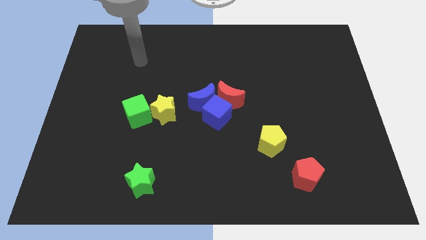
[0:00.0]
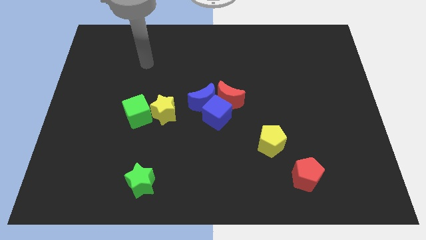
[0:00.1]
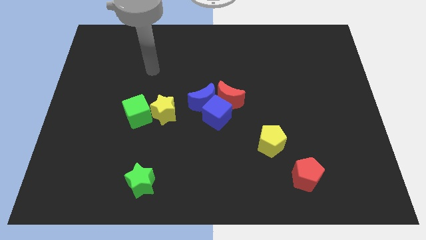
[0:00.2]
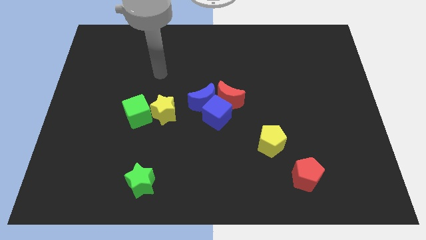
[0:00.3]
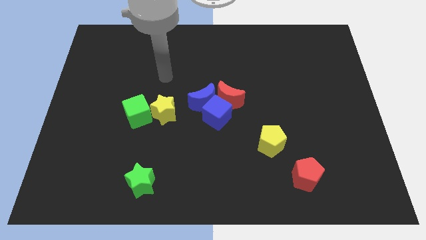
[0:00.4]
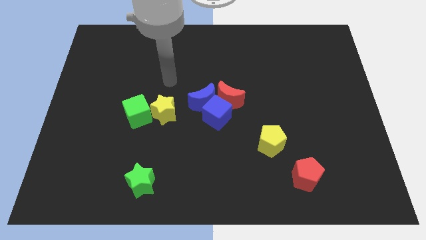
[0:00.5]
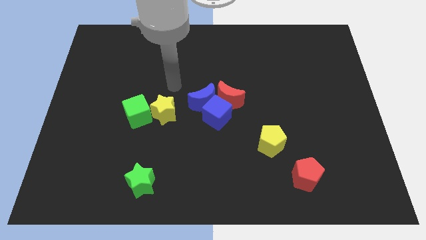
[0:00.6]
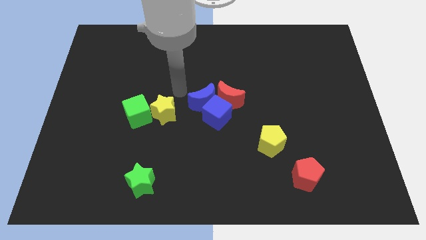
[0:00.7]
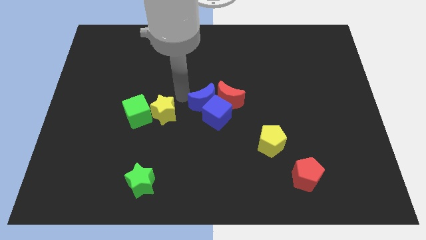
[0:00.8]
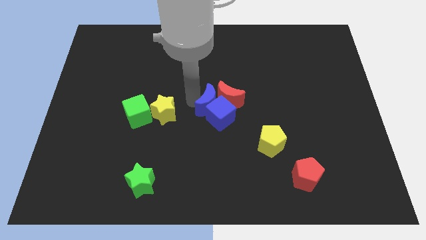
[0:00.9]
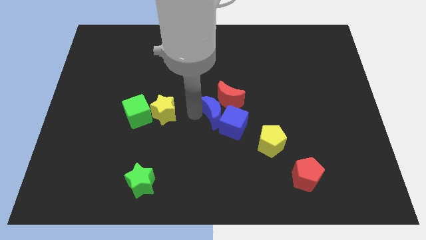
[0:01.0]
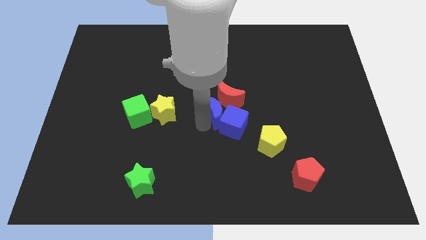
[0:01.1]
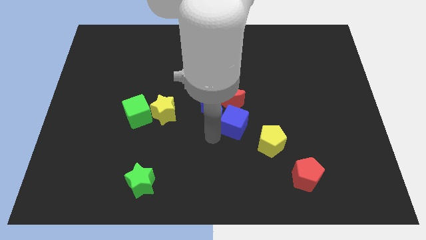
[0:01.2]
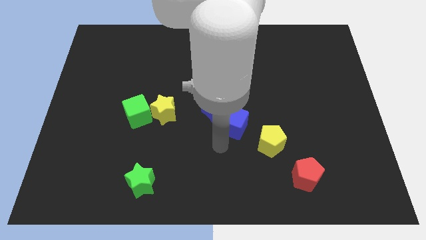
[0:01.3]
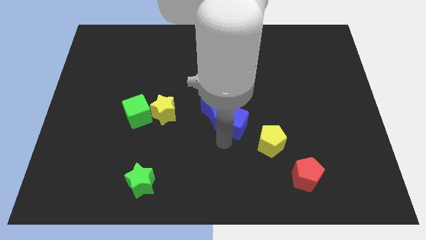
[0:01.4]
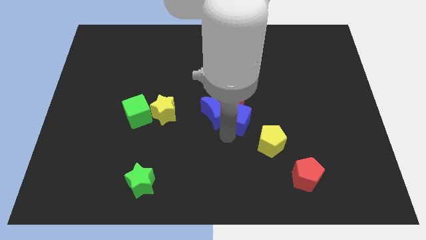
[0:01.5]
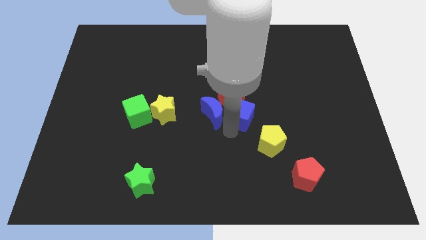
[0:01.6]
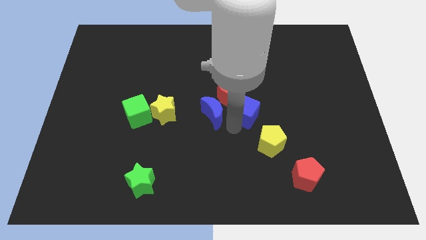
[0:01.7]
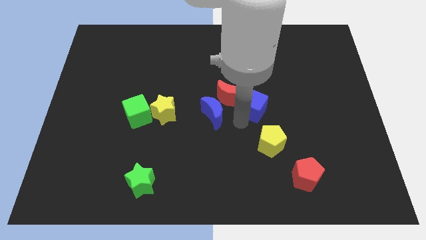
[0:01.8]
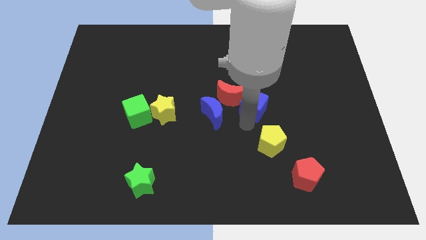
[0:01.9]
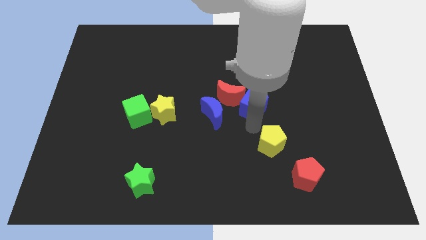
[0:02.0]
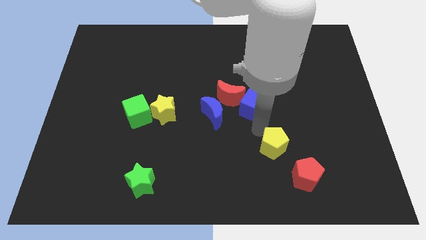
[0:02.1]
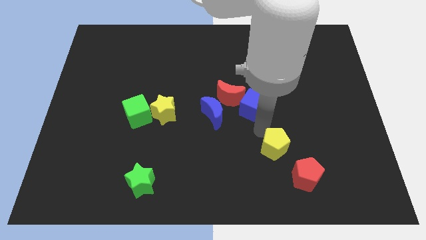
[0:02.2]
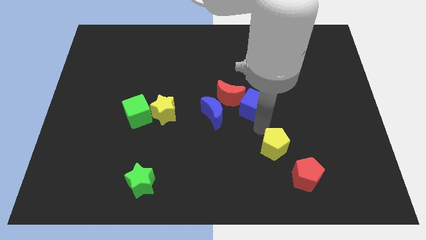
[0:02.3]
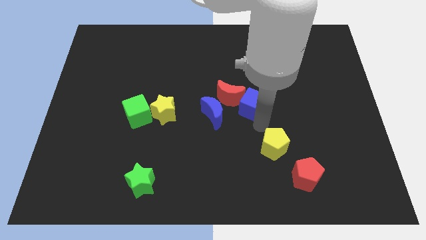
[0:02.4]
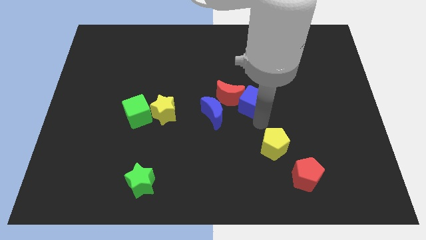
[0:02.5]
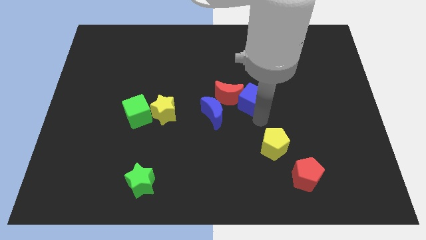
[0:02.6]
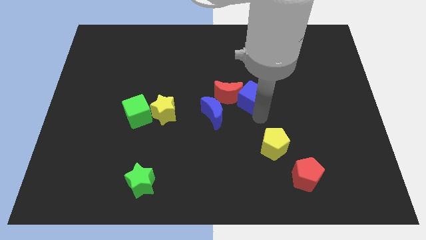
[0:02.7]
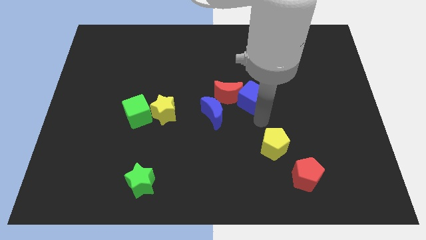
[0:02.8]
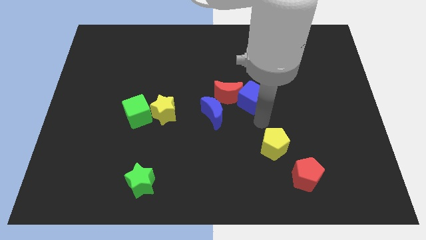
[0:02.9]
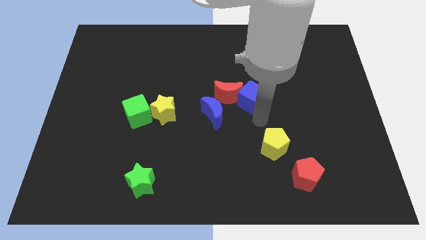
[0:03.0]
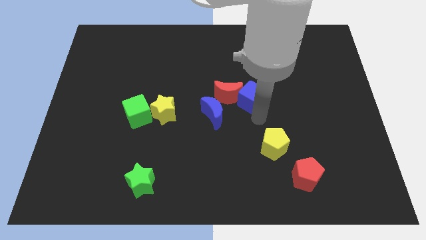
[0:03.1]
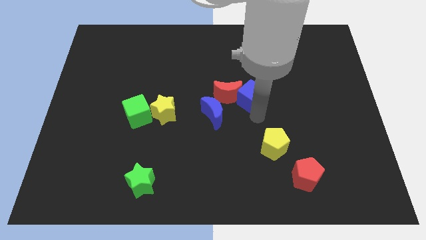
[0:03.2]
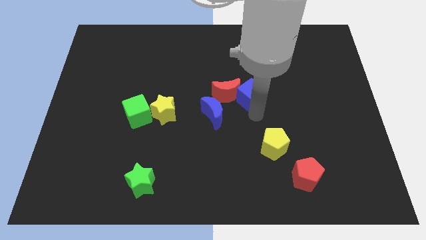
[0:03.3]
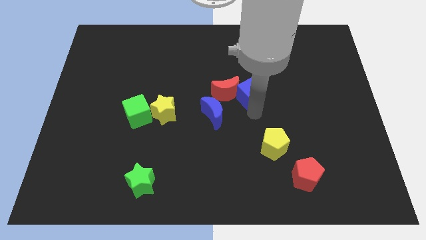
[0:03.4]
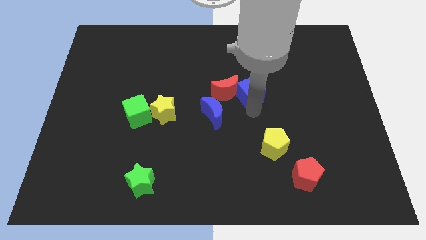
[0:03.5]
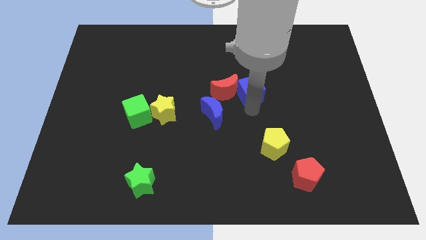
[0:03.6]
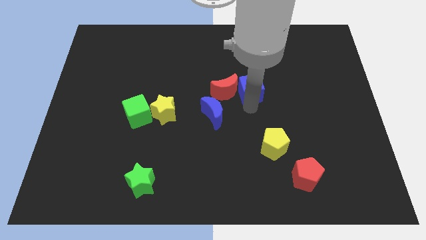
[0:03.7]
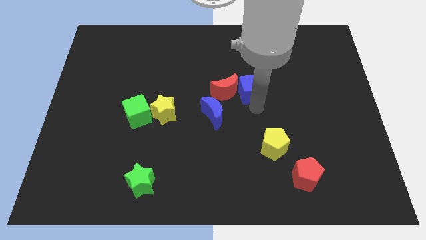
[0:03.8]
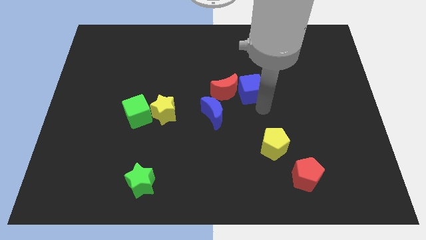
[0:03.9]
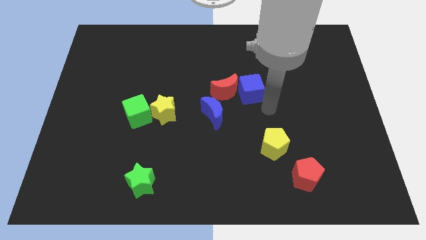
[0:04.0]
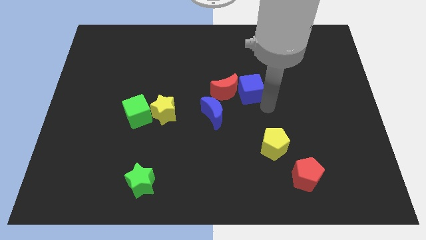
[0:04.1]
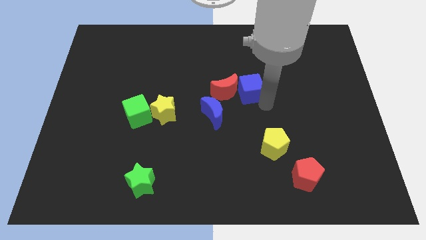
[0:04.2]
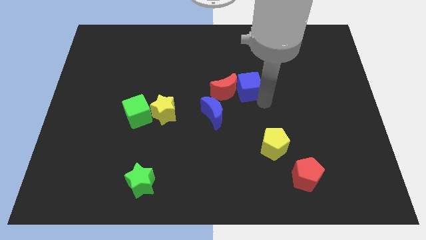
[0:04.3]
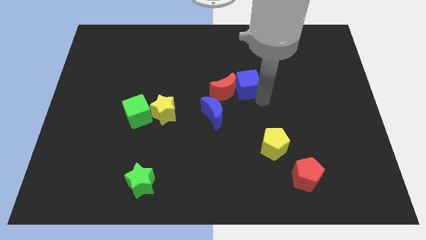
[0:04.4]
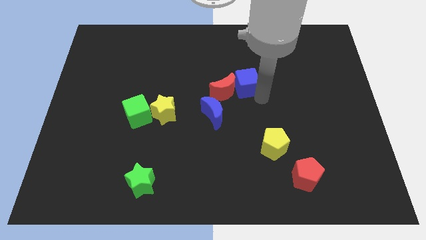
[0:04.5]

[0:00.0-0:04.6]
slightly move the blue cube upwards

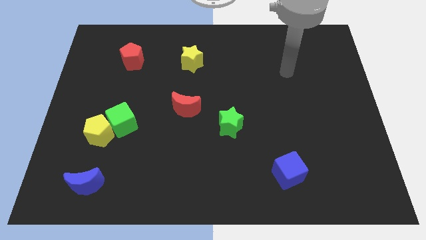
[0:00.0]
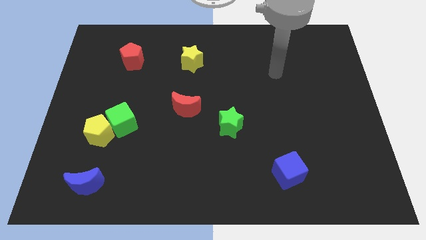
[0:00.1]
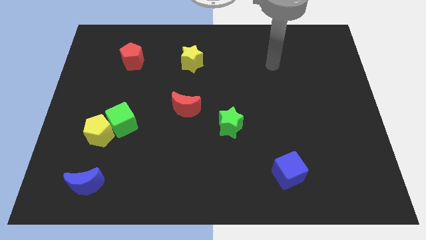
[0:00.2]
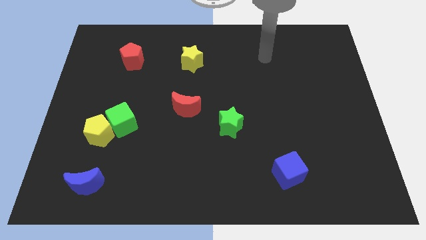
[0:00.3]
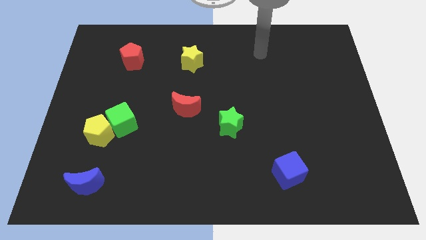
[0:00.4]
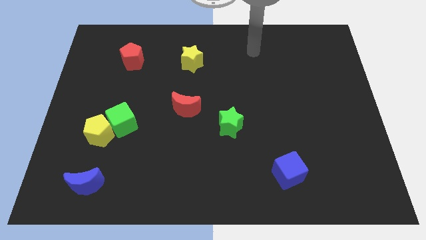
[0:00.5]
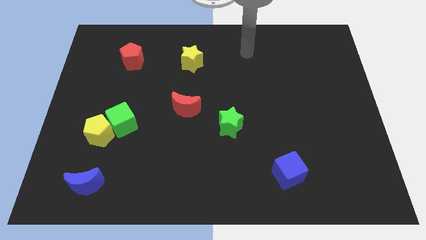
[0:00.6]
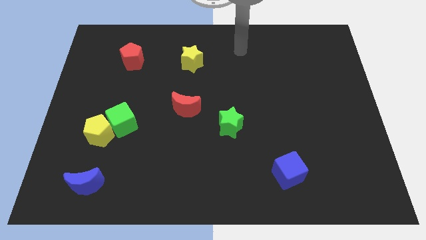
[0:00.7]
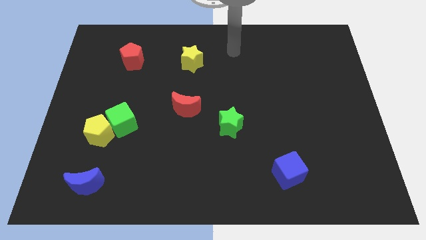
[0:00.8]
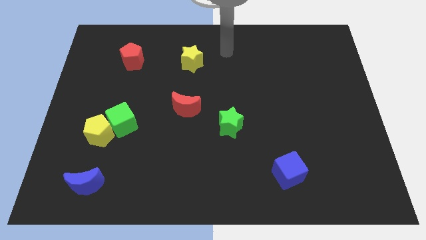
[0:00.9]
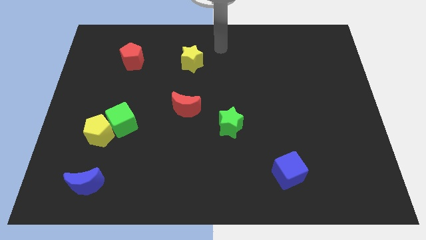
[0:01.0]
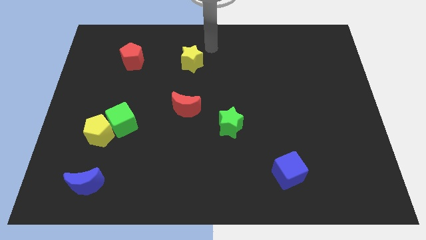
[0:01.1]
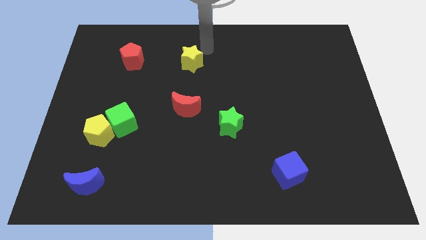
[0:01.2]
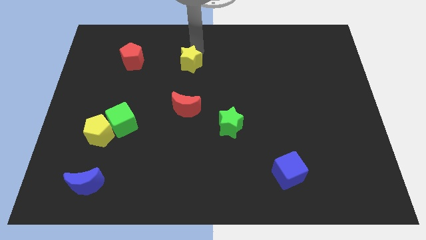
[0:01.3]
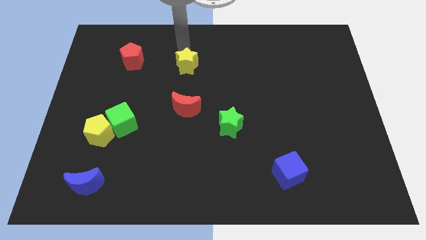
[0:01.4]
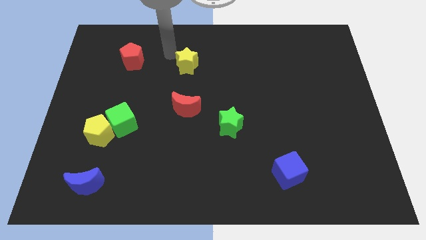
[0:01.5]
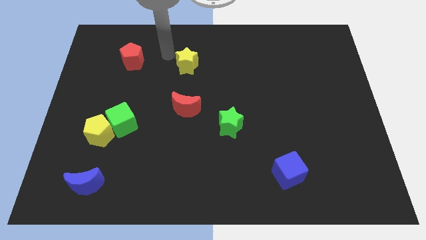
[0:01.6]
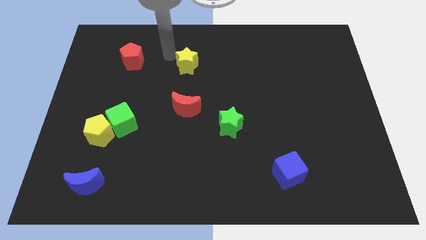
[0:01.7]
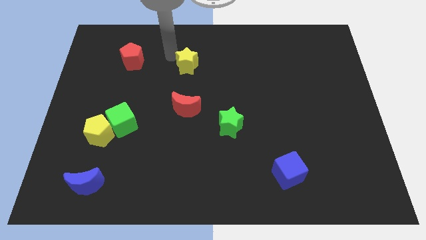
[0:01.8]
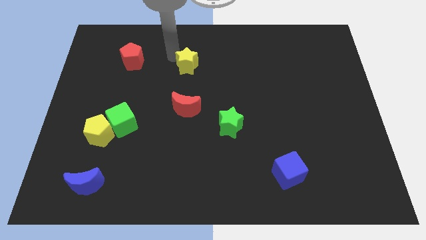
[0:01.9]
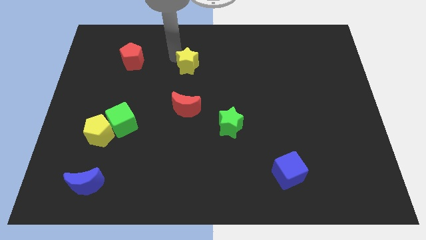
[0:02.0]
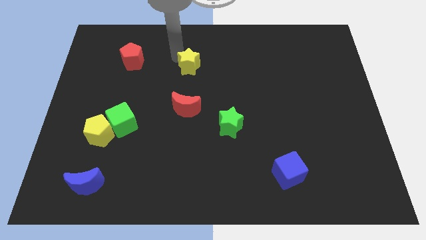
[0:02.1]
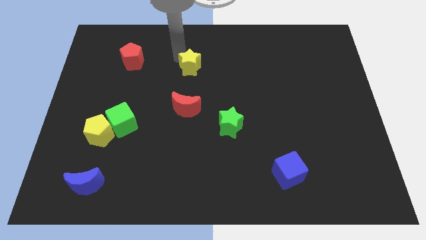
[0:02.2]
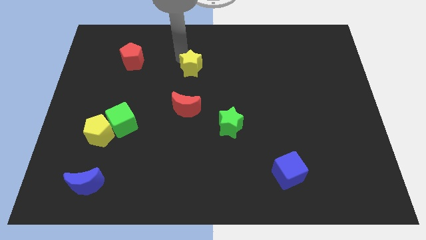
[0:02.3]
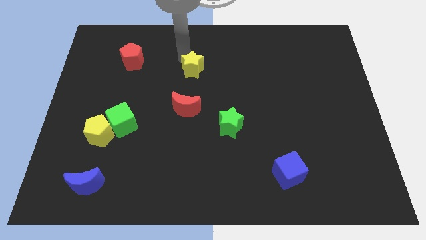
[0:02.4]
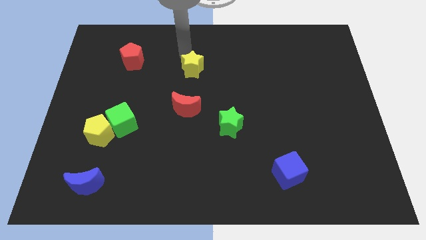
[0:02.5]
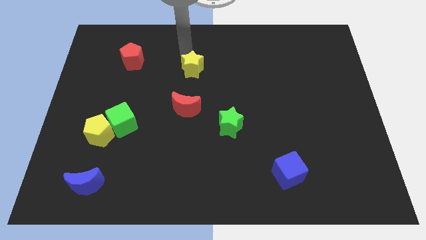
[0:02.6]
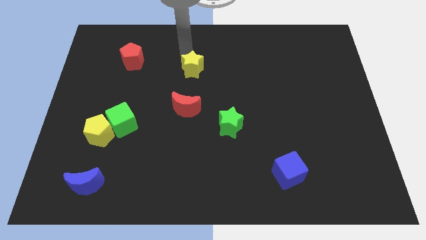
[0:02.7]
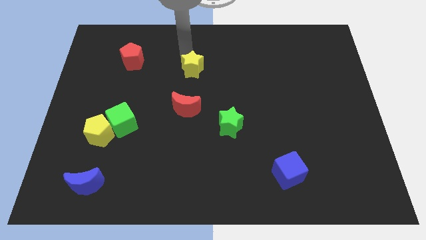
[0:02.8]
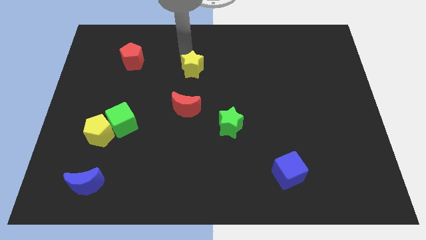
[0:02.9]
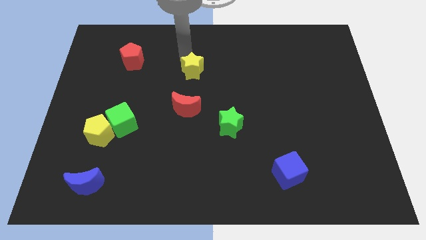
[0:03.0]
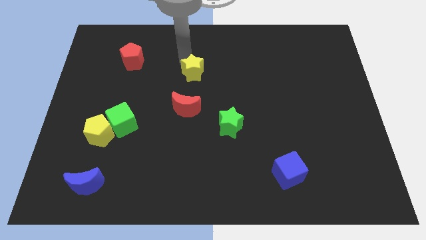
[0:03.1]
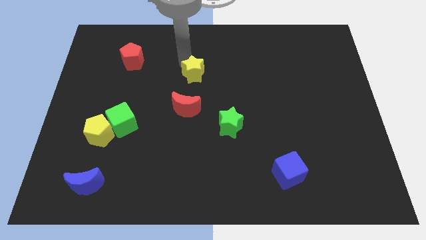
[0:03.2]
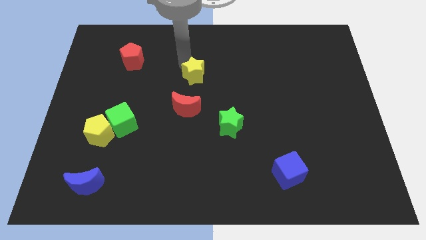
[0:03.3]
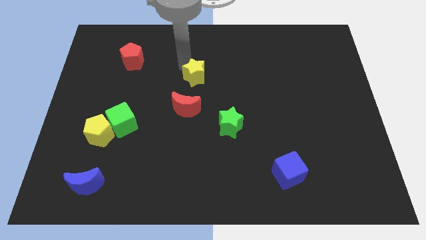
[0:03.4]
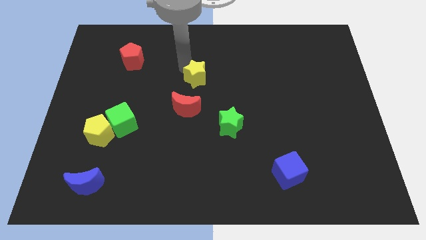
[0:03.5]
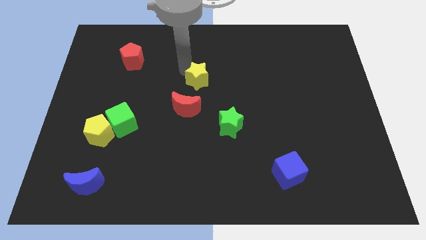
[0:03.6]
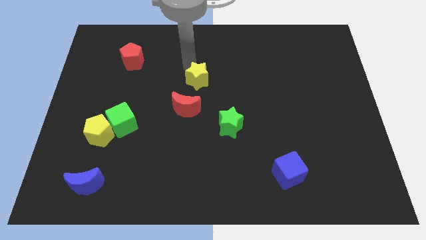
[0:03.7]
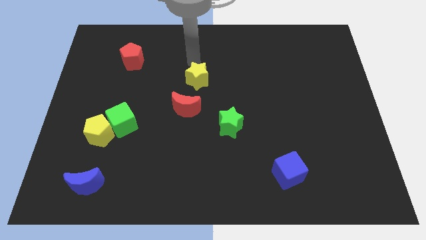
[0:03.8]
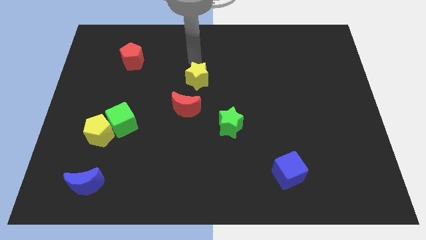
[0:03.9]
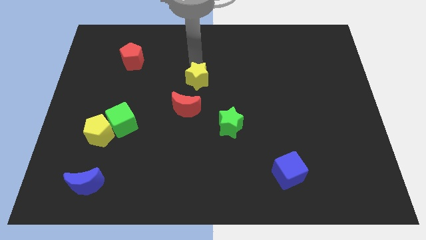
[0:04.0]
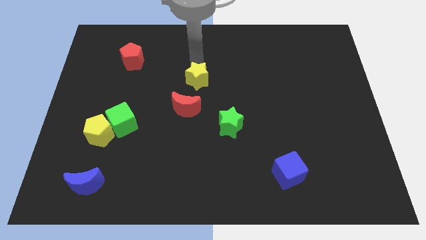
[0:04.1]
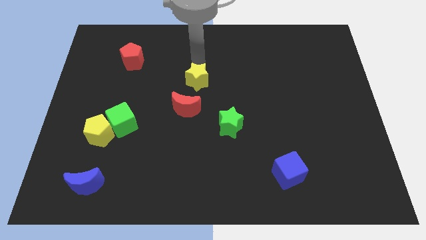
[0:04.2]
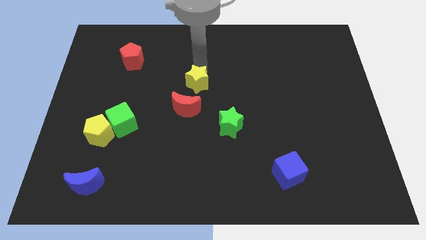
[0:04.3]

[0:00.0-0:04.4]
move the yellow star a bit downwards
